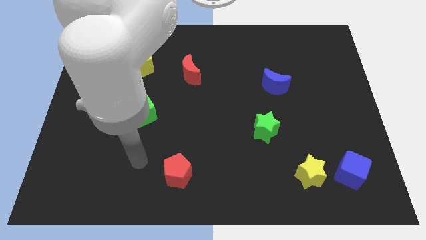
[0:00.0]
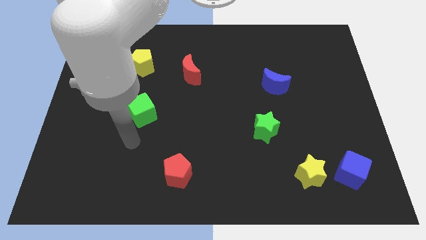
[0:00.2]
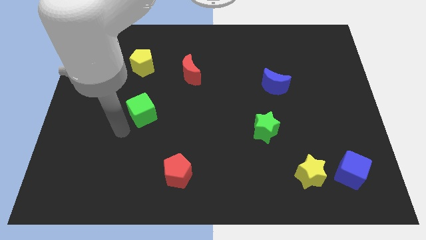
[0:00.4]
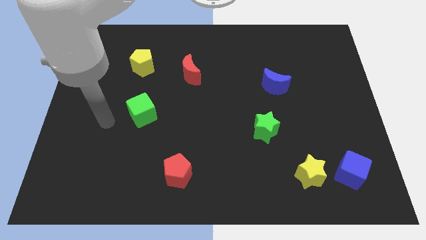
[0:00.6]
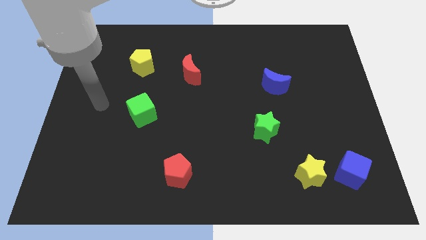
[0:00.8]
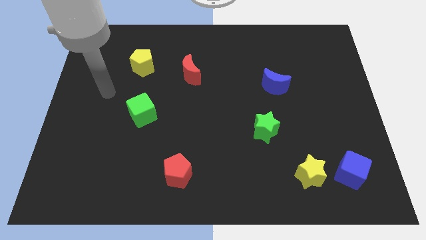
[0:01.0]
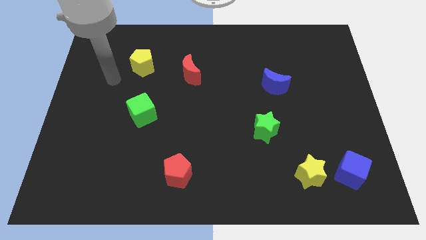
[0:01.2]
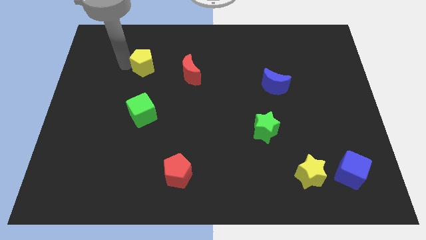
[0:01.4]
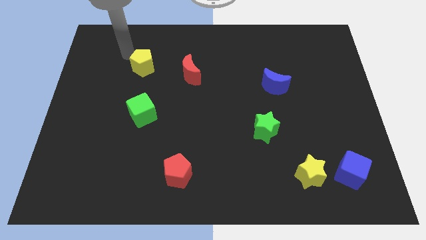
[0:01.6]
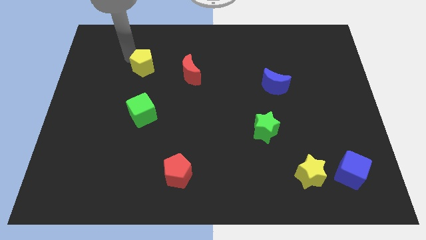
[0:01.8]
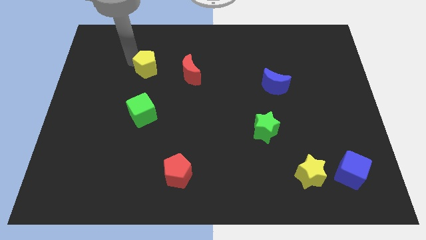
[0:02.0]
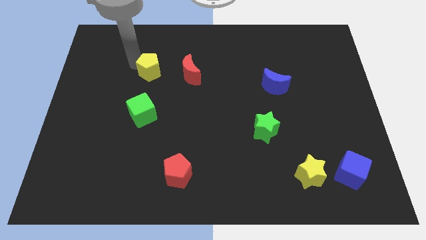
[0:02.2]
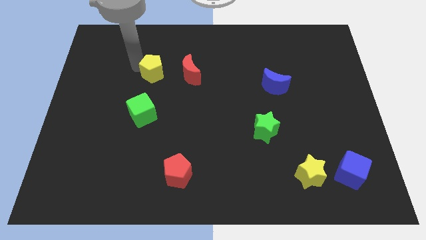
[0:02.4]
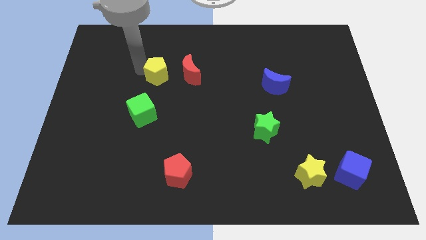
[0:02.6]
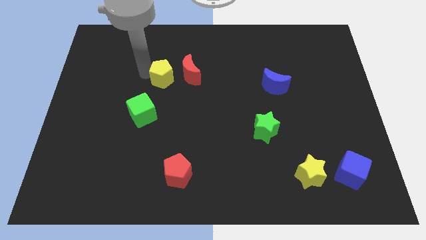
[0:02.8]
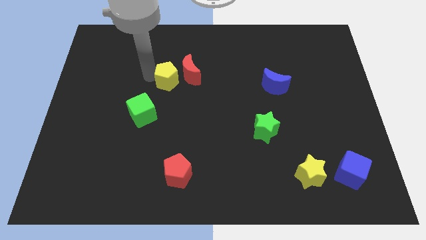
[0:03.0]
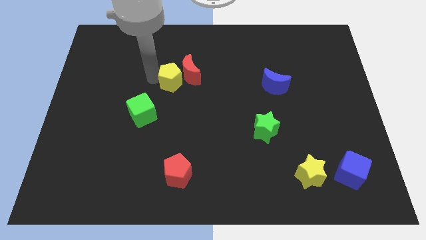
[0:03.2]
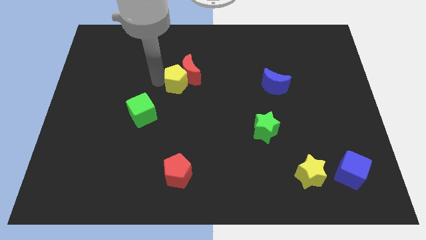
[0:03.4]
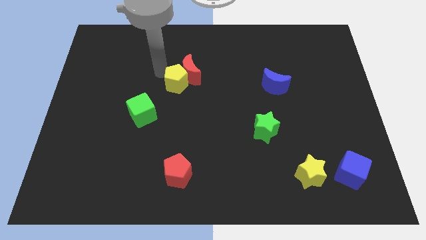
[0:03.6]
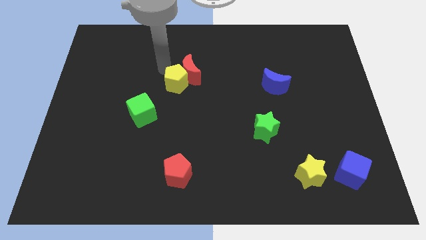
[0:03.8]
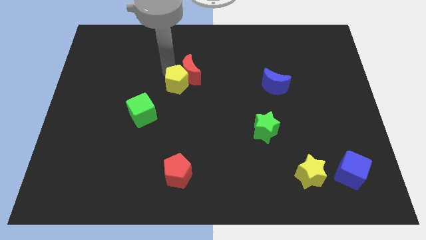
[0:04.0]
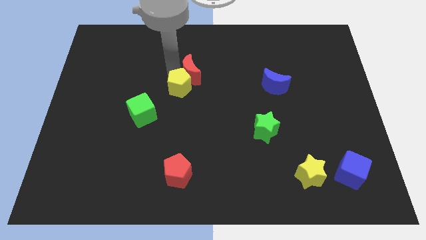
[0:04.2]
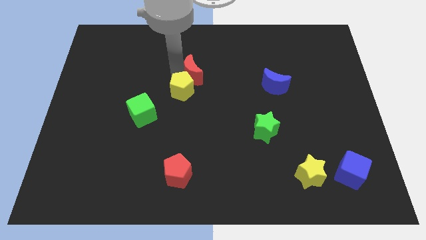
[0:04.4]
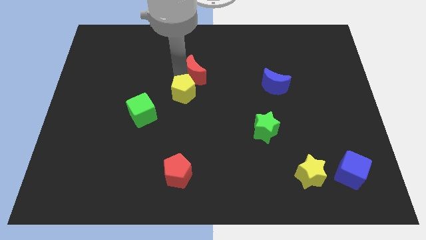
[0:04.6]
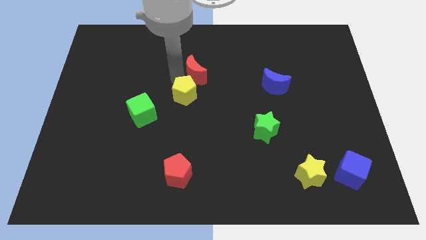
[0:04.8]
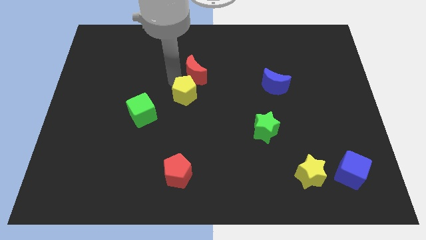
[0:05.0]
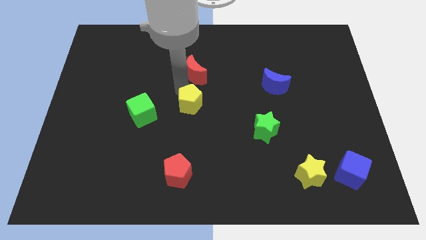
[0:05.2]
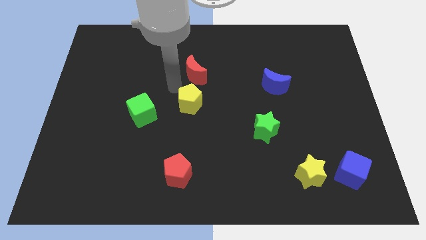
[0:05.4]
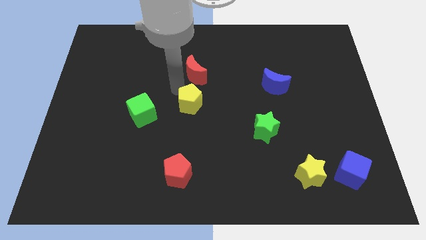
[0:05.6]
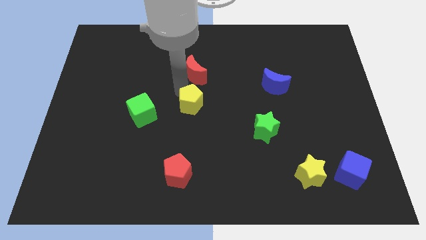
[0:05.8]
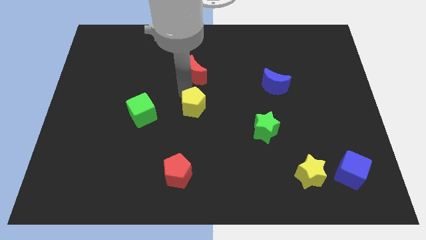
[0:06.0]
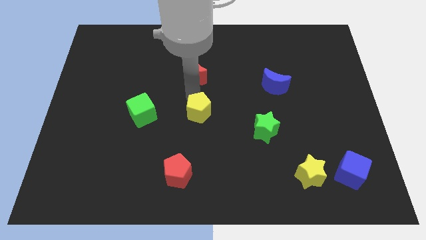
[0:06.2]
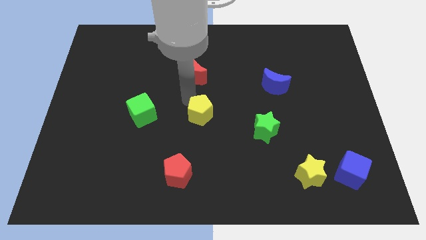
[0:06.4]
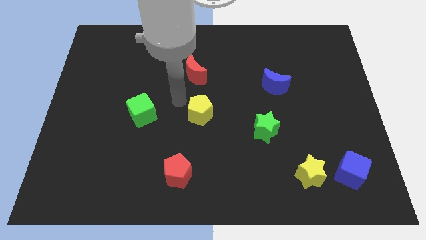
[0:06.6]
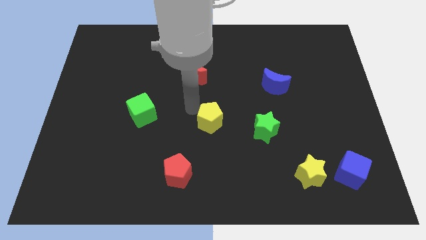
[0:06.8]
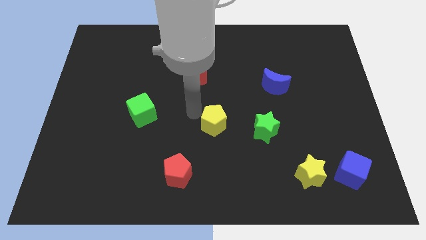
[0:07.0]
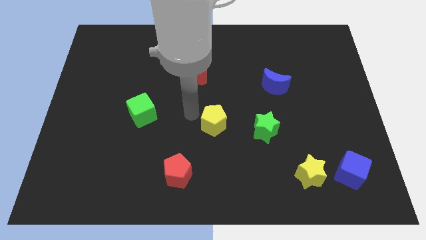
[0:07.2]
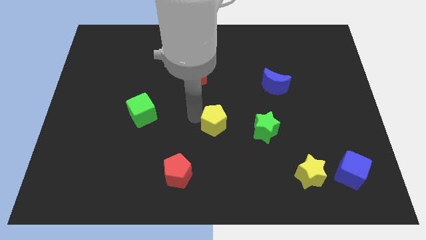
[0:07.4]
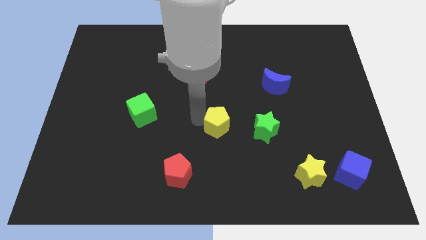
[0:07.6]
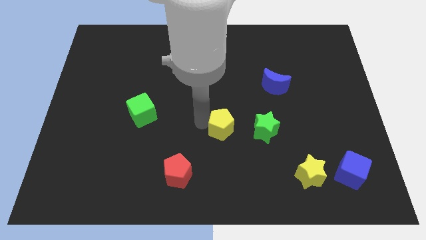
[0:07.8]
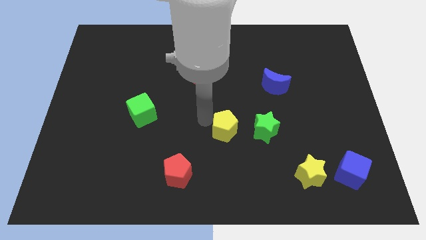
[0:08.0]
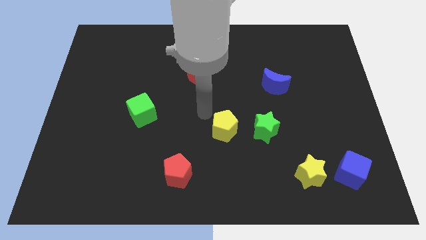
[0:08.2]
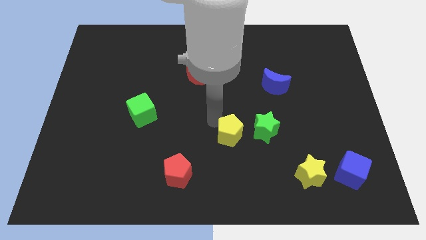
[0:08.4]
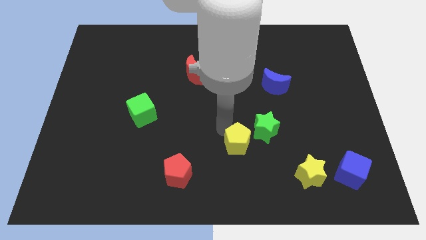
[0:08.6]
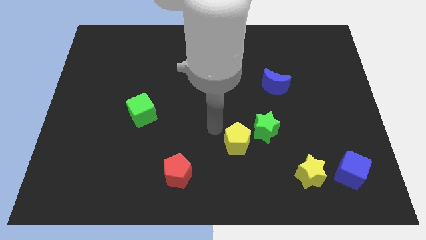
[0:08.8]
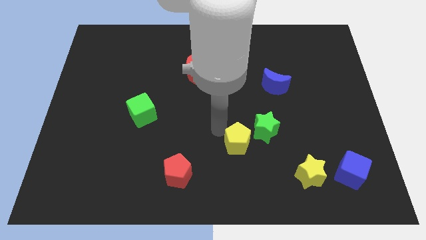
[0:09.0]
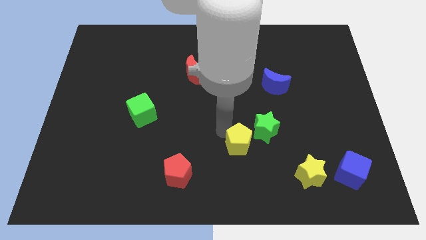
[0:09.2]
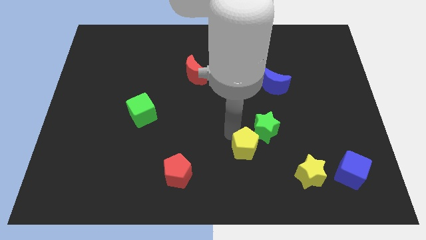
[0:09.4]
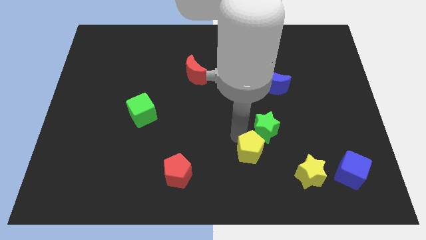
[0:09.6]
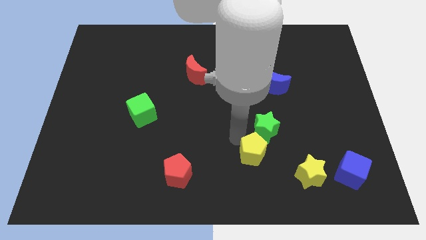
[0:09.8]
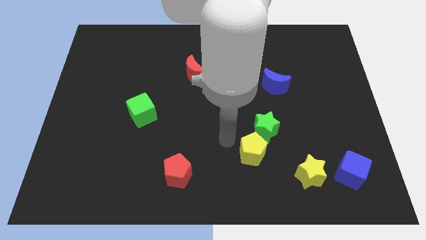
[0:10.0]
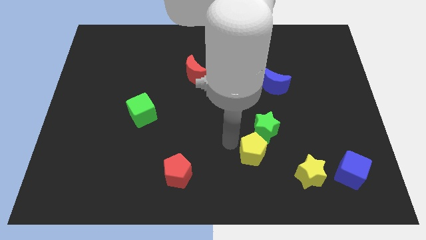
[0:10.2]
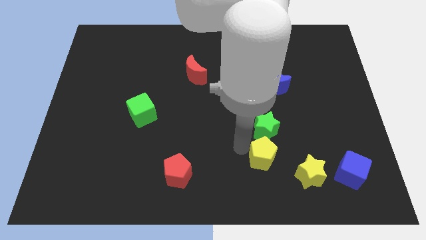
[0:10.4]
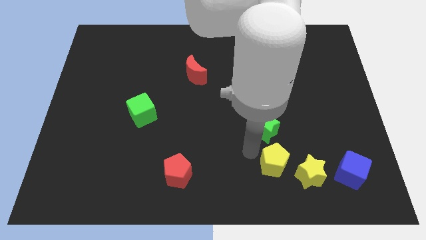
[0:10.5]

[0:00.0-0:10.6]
push the yellow pentagon to the left of the blue cube

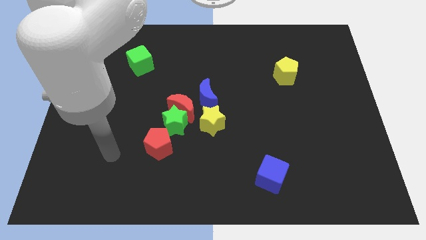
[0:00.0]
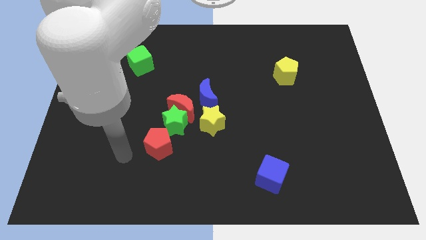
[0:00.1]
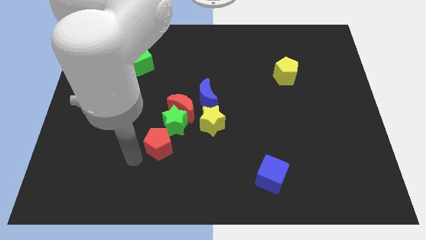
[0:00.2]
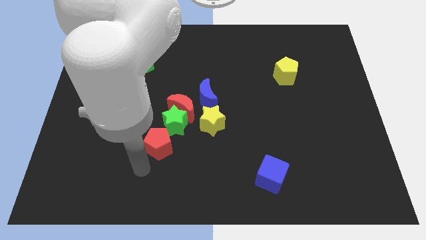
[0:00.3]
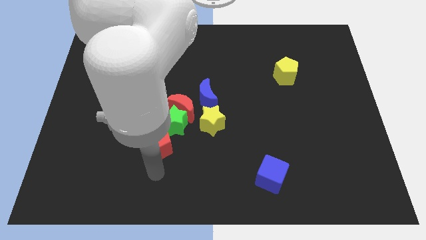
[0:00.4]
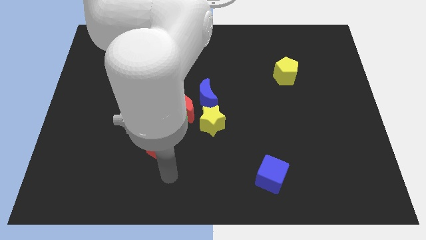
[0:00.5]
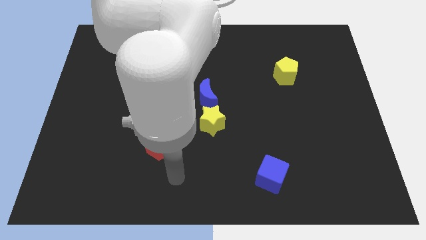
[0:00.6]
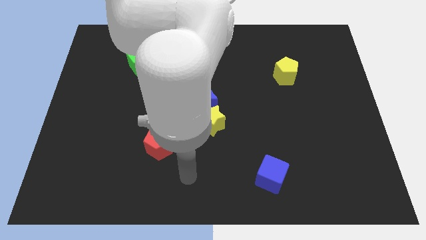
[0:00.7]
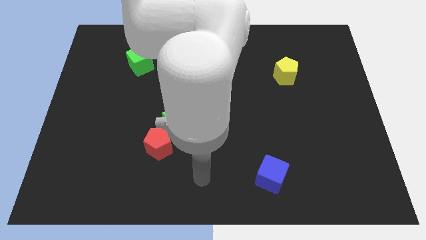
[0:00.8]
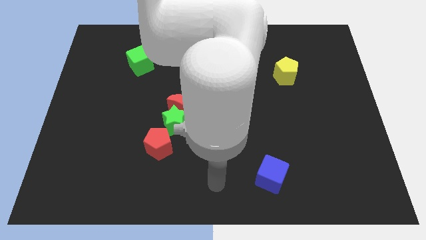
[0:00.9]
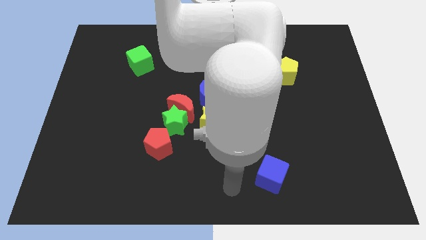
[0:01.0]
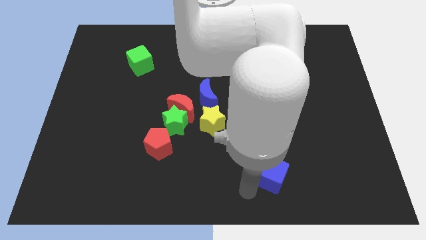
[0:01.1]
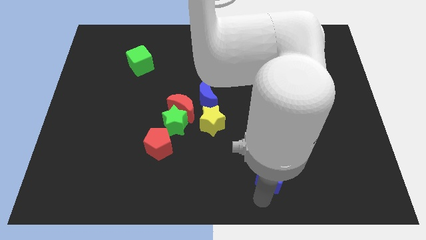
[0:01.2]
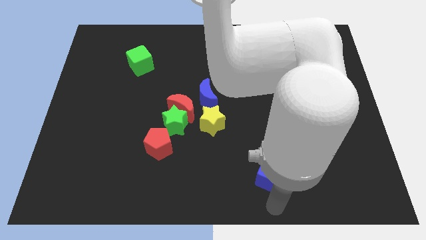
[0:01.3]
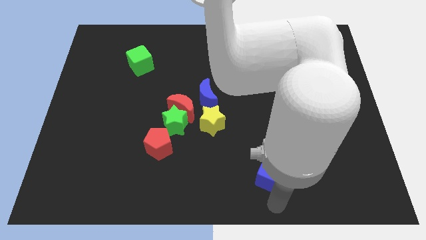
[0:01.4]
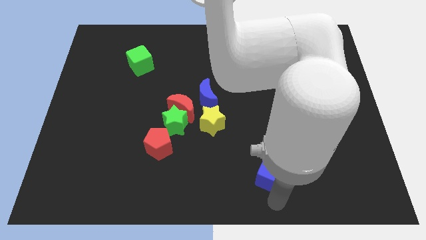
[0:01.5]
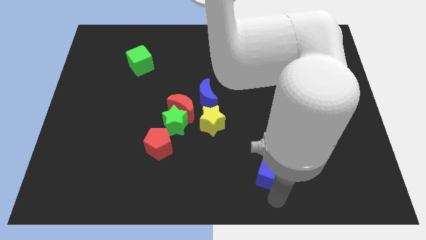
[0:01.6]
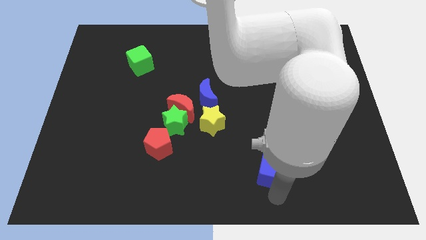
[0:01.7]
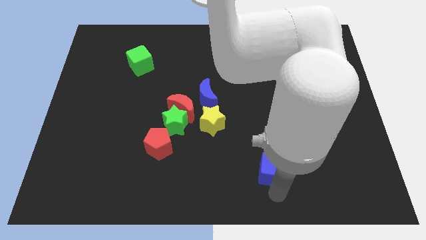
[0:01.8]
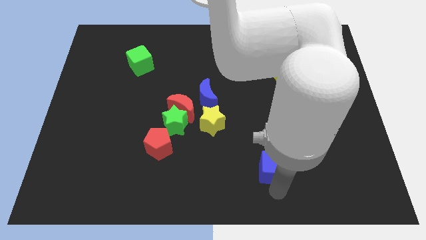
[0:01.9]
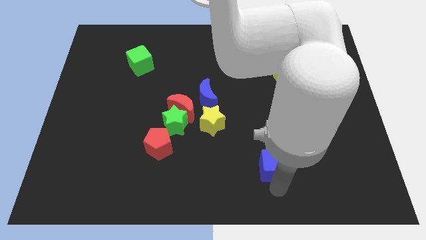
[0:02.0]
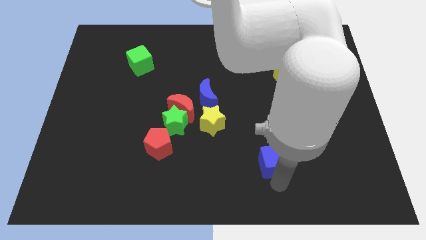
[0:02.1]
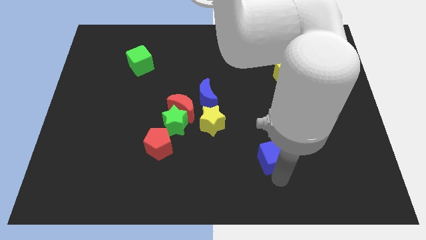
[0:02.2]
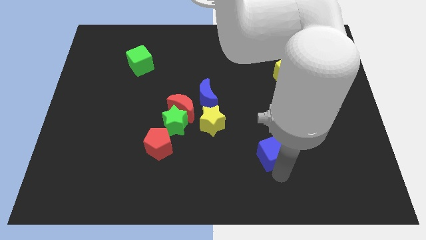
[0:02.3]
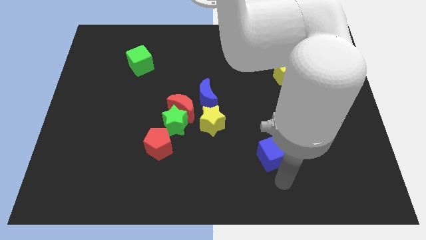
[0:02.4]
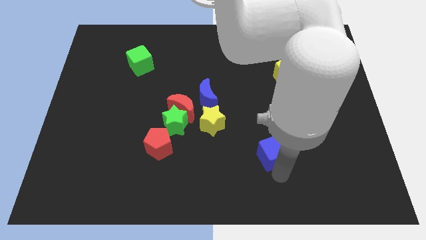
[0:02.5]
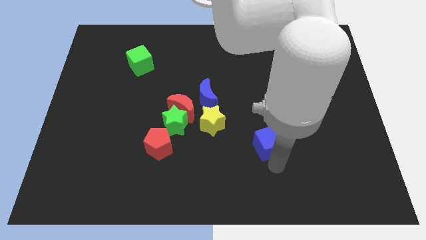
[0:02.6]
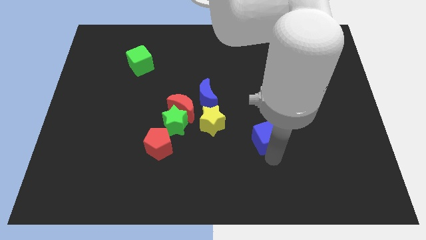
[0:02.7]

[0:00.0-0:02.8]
slide the blue cube to the right of the yellow star
